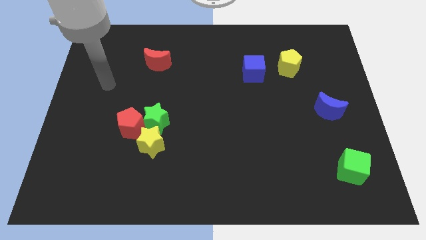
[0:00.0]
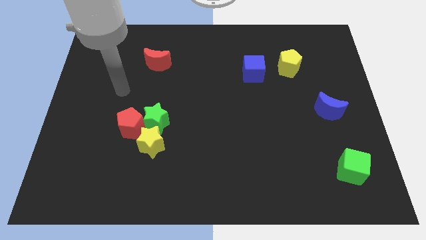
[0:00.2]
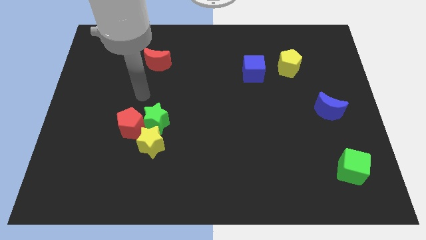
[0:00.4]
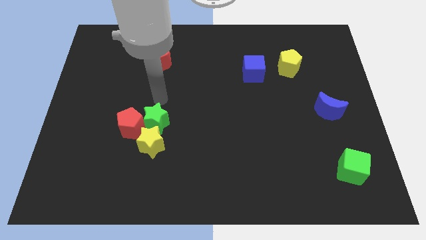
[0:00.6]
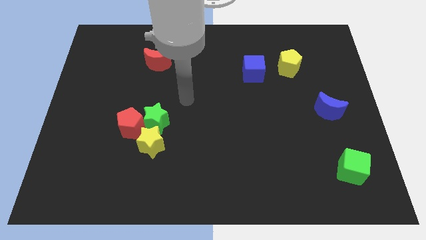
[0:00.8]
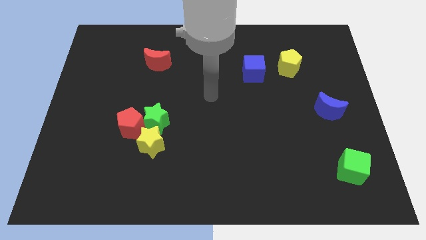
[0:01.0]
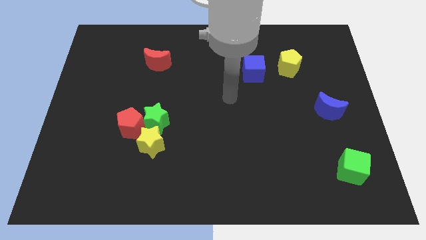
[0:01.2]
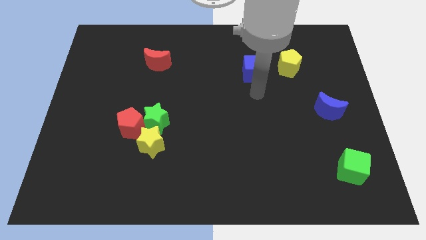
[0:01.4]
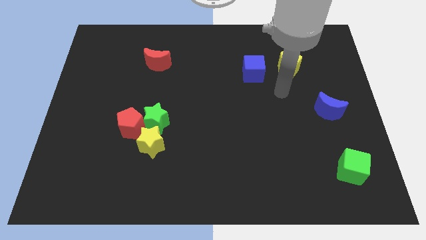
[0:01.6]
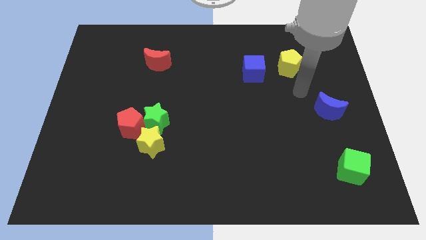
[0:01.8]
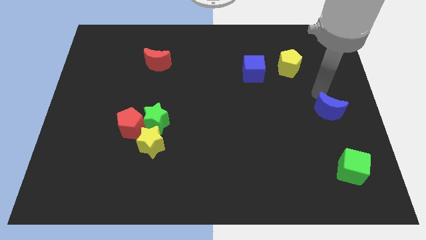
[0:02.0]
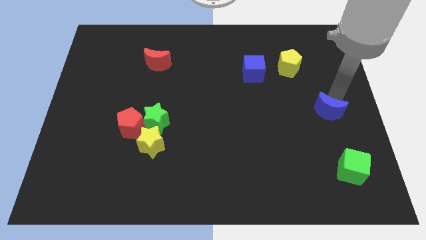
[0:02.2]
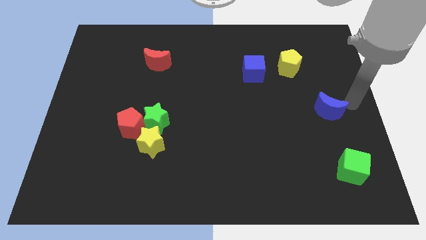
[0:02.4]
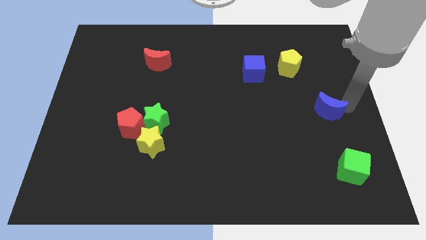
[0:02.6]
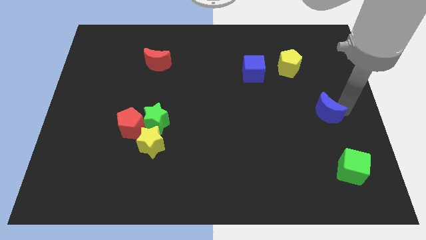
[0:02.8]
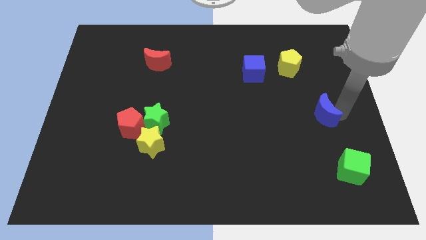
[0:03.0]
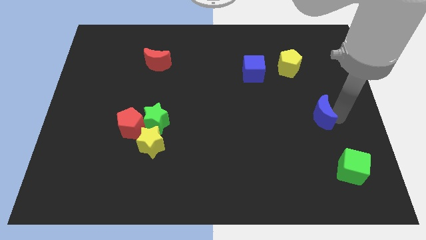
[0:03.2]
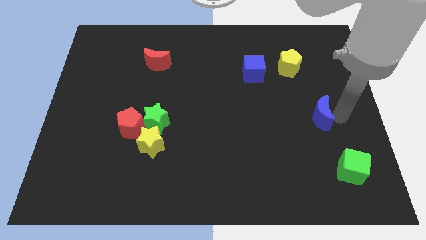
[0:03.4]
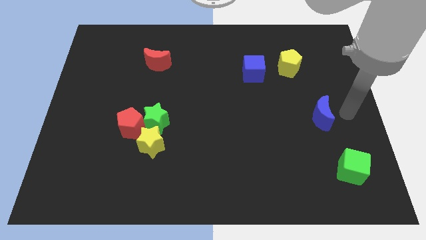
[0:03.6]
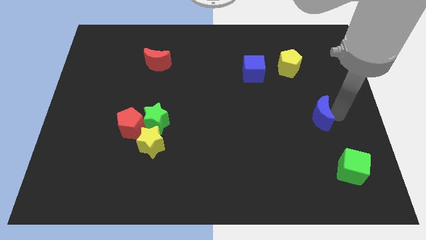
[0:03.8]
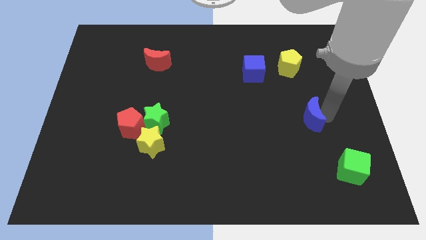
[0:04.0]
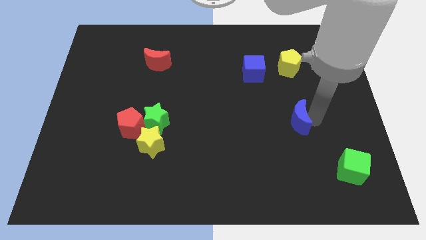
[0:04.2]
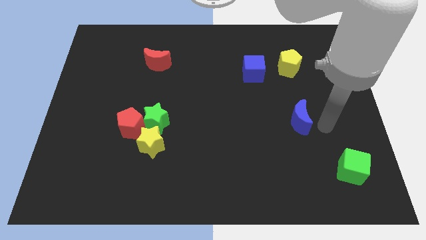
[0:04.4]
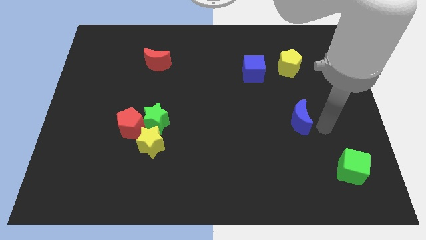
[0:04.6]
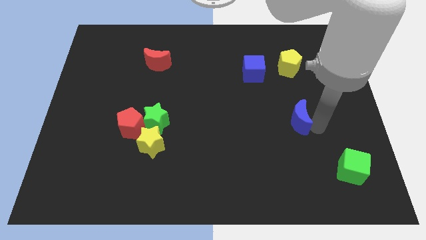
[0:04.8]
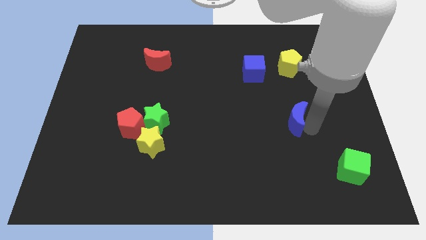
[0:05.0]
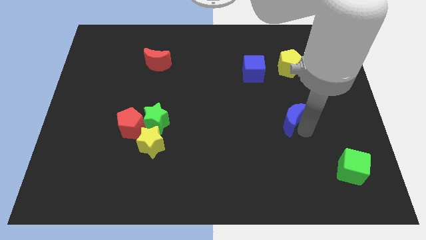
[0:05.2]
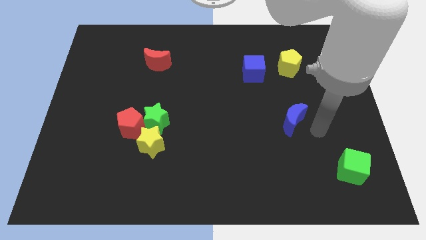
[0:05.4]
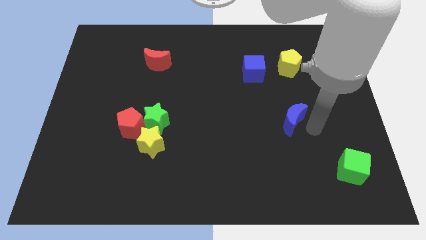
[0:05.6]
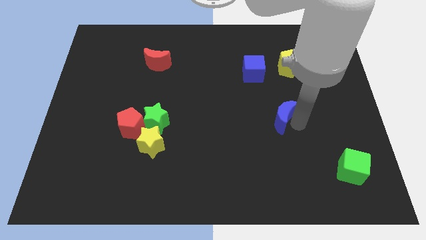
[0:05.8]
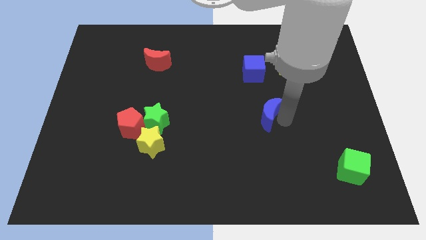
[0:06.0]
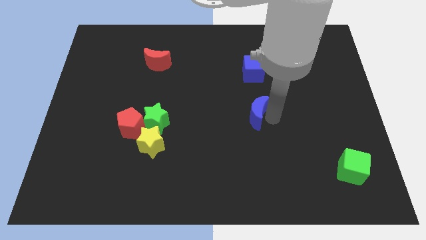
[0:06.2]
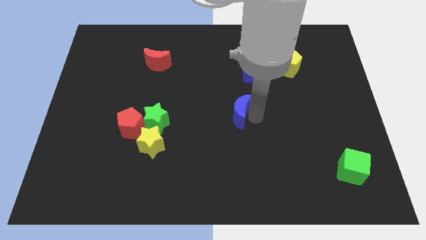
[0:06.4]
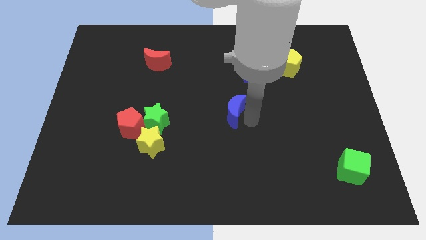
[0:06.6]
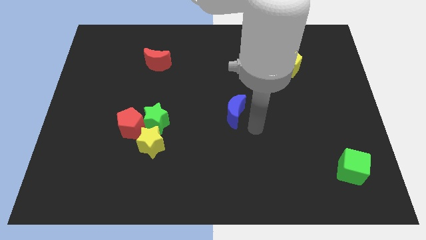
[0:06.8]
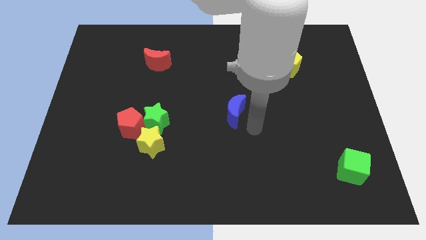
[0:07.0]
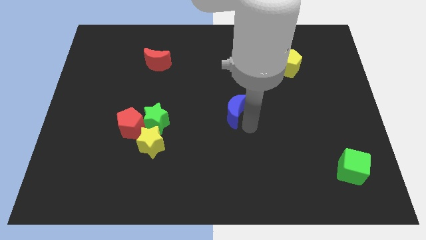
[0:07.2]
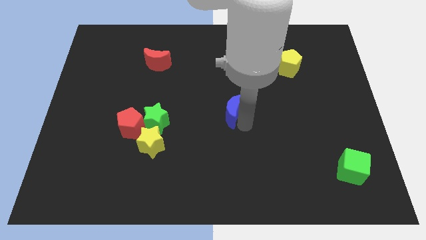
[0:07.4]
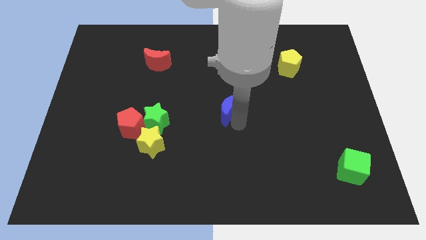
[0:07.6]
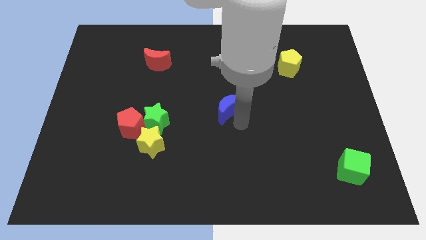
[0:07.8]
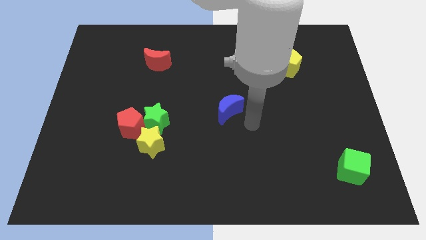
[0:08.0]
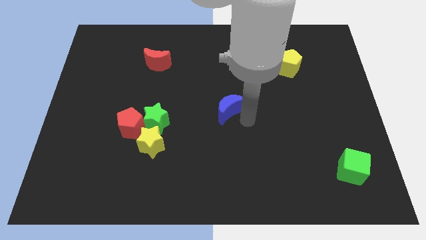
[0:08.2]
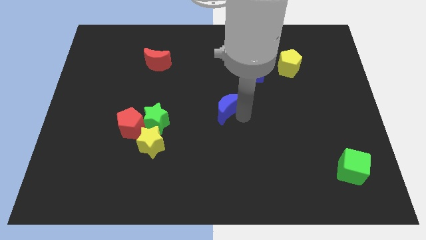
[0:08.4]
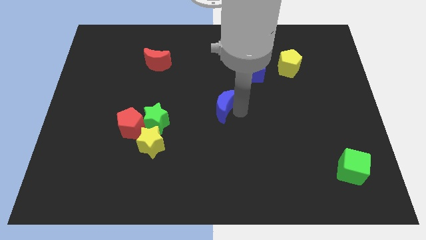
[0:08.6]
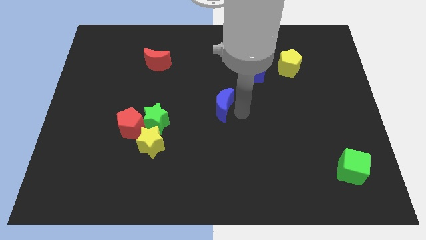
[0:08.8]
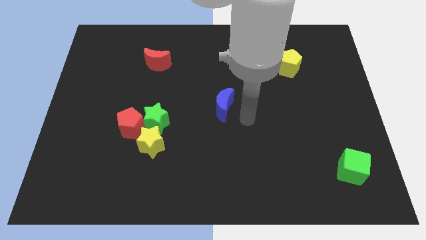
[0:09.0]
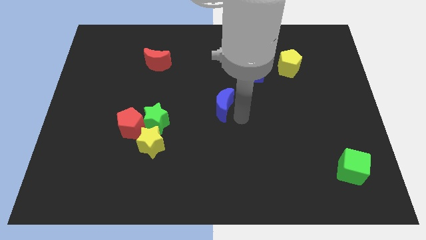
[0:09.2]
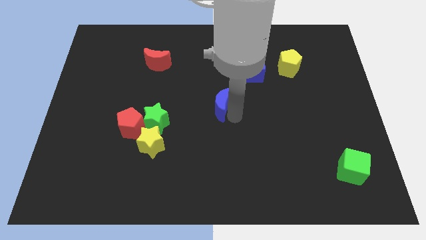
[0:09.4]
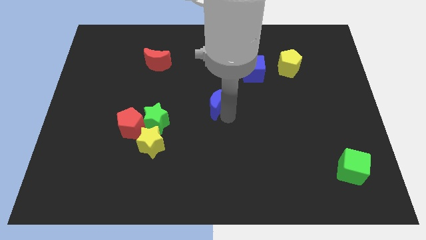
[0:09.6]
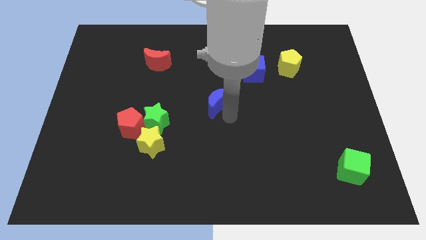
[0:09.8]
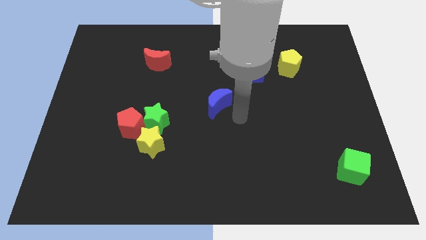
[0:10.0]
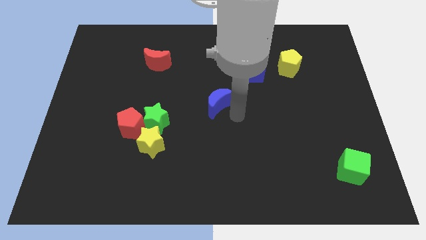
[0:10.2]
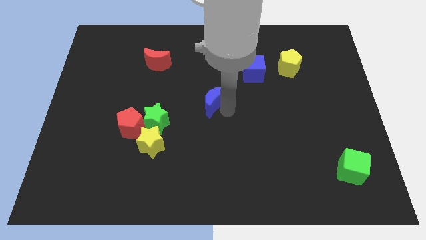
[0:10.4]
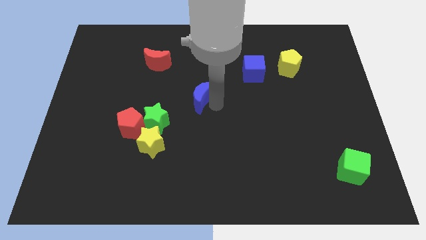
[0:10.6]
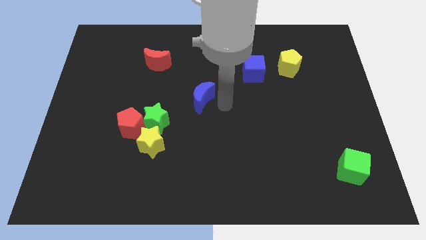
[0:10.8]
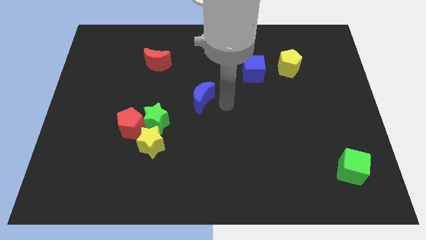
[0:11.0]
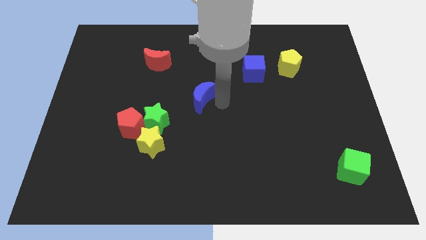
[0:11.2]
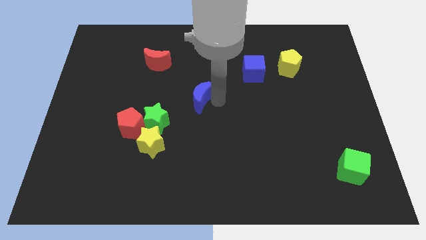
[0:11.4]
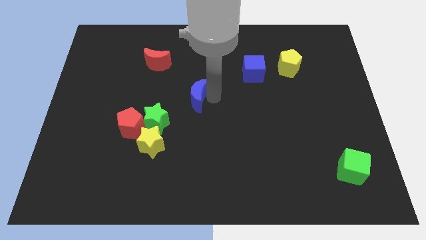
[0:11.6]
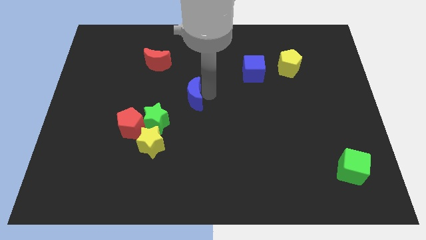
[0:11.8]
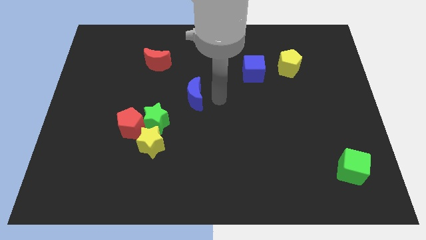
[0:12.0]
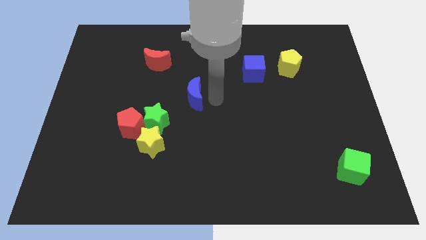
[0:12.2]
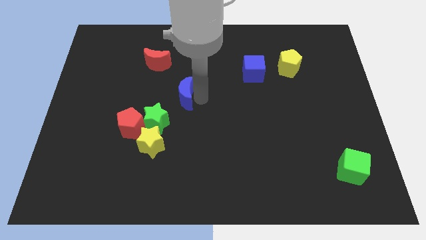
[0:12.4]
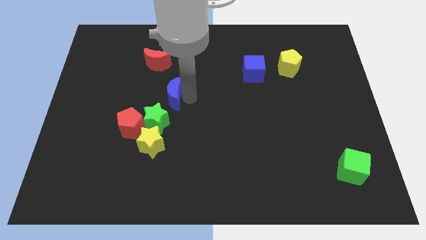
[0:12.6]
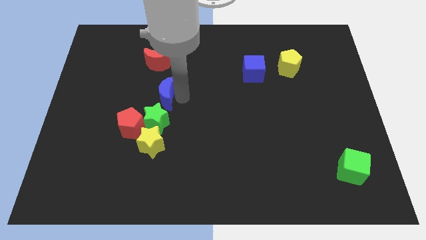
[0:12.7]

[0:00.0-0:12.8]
slide the blue moon to the bottom side of the red moon

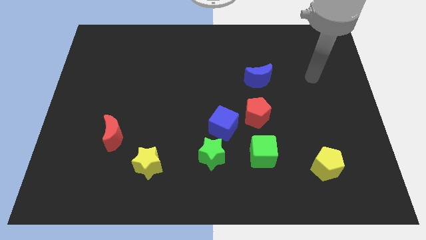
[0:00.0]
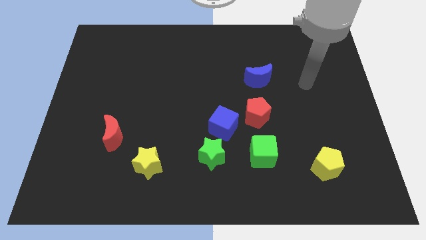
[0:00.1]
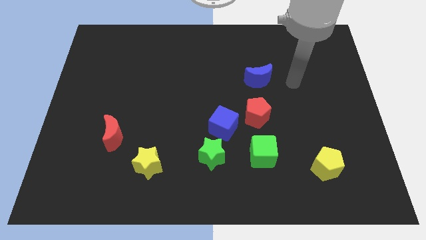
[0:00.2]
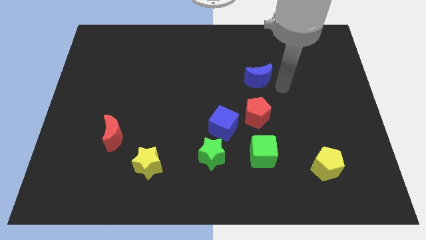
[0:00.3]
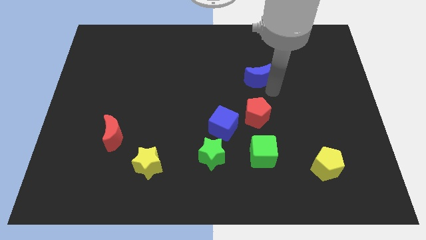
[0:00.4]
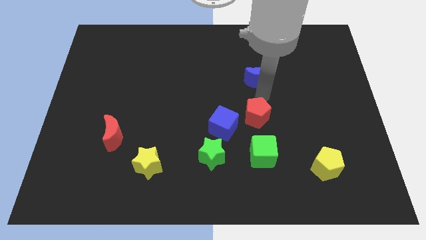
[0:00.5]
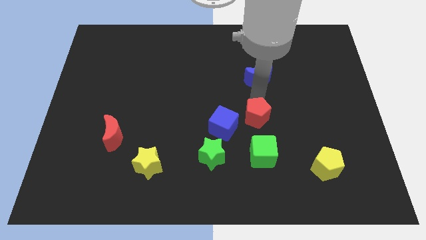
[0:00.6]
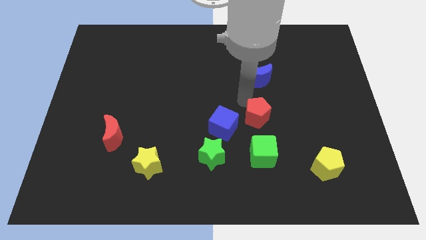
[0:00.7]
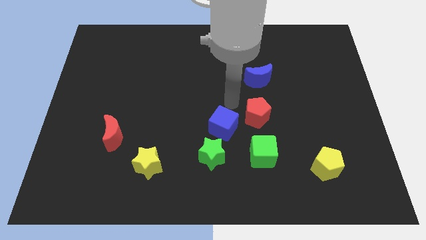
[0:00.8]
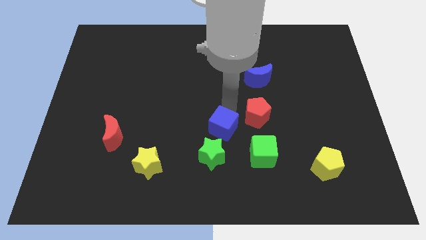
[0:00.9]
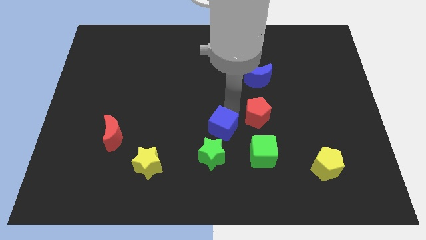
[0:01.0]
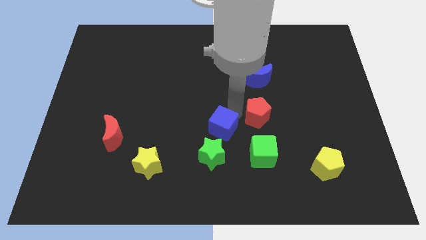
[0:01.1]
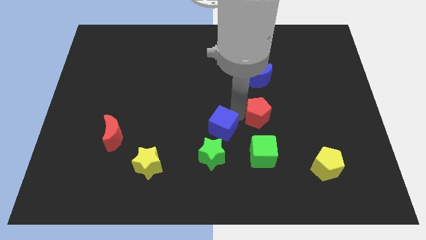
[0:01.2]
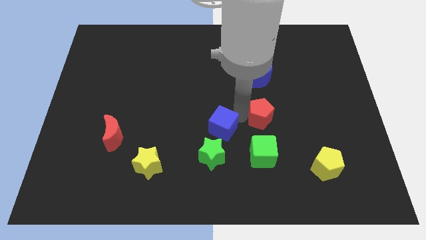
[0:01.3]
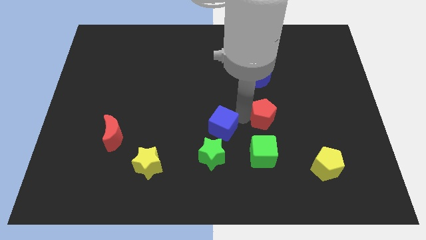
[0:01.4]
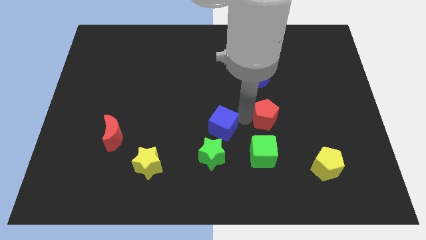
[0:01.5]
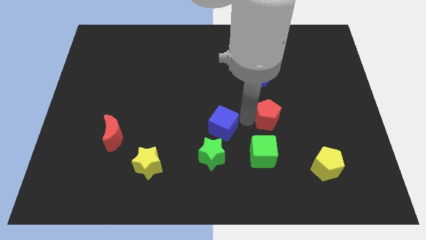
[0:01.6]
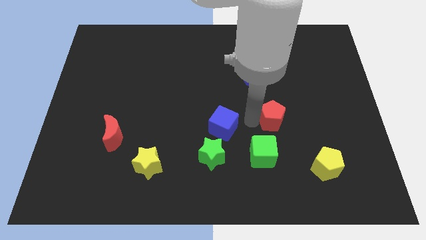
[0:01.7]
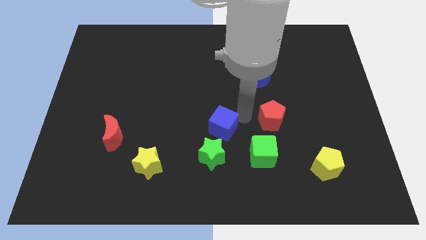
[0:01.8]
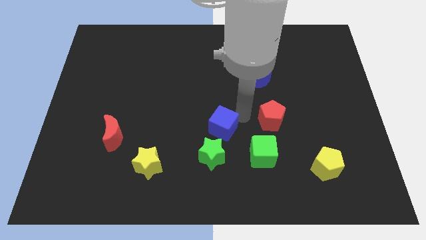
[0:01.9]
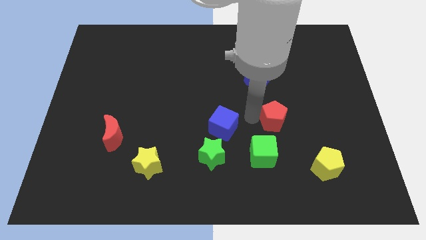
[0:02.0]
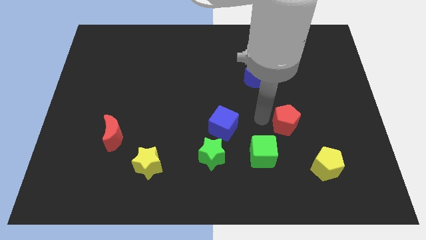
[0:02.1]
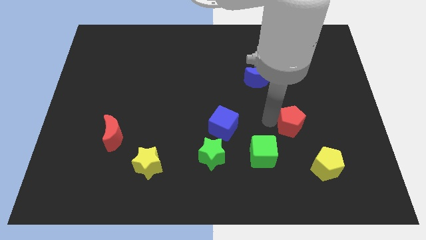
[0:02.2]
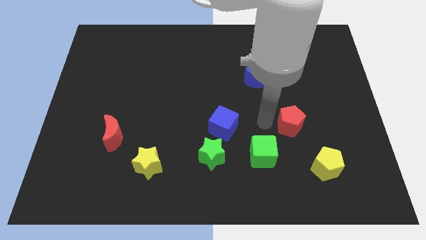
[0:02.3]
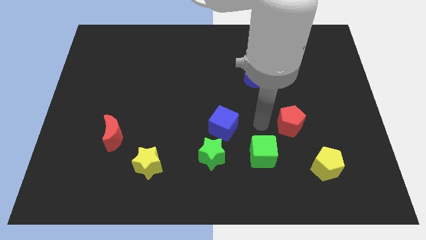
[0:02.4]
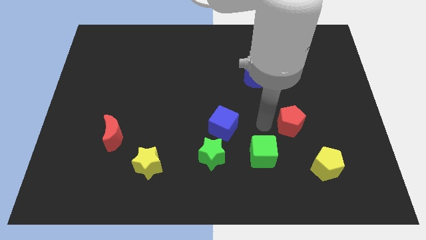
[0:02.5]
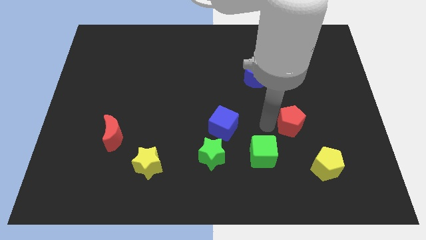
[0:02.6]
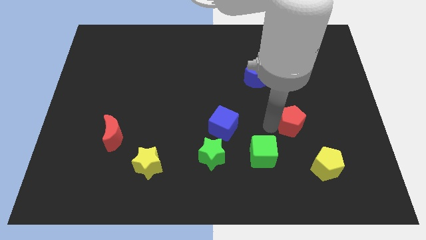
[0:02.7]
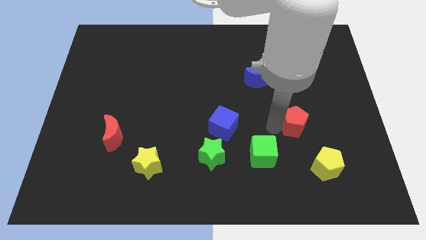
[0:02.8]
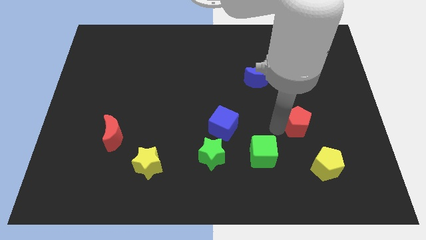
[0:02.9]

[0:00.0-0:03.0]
slide the red pentagon to the top of the yellow pentagon
